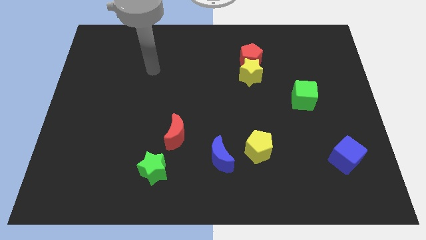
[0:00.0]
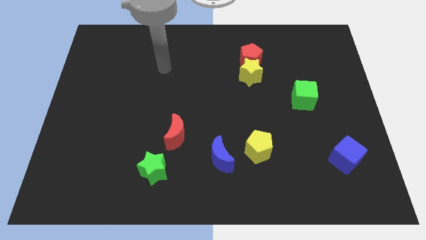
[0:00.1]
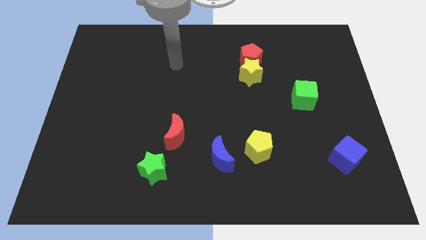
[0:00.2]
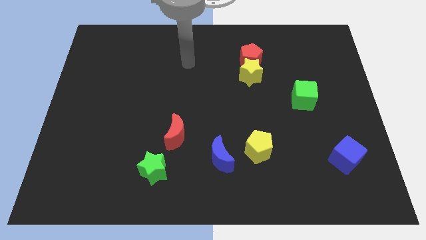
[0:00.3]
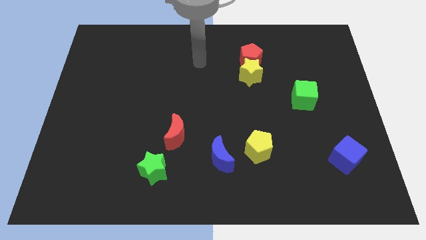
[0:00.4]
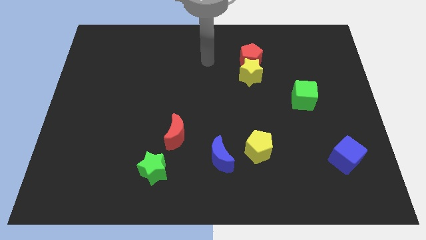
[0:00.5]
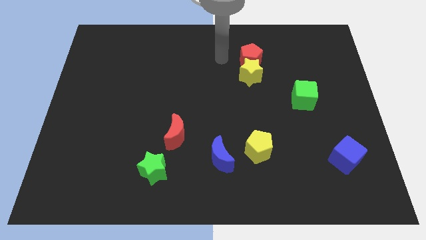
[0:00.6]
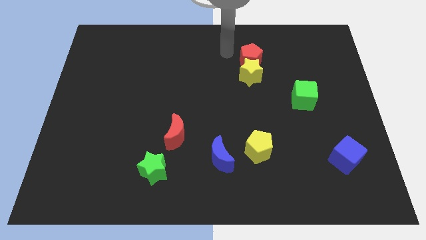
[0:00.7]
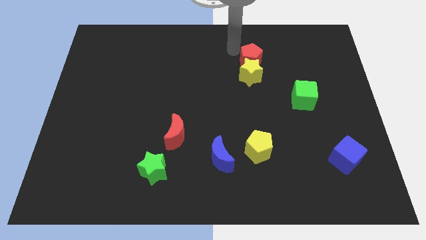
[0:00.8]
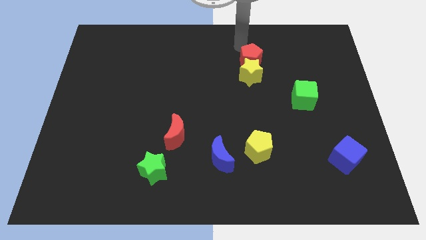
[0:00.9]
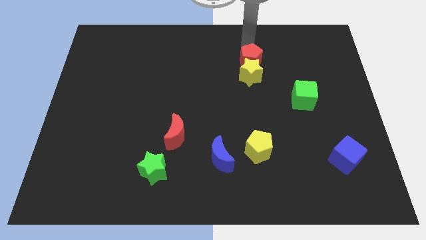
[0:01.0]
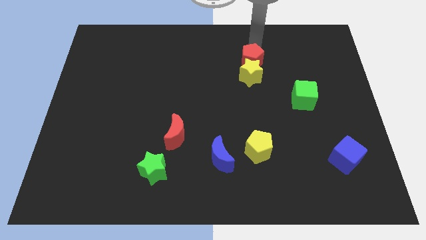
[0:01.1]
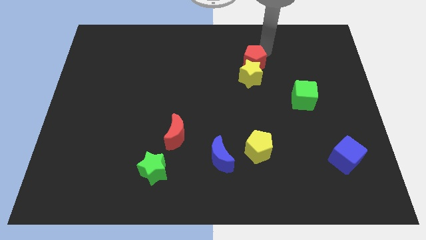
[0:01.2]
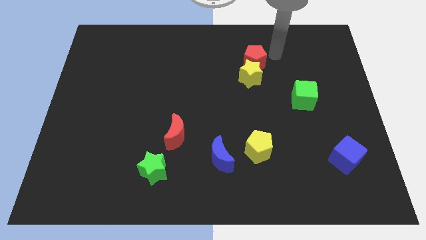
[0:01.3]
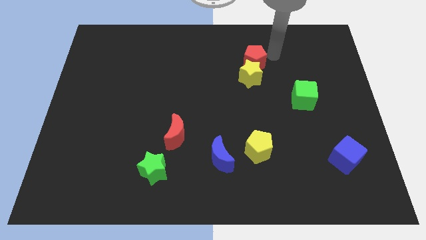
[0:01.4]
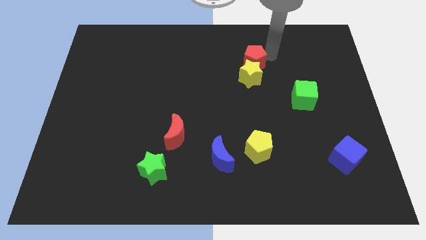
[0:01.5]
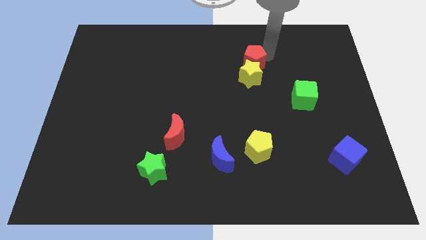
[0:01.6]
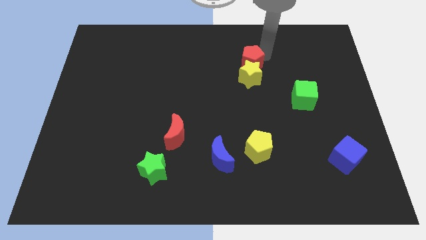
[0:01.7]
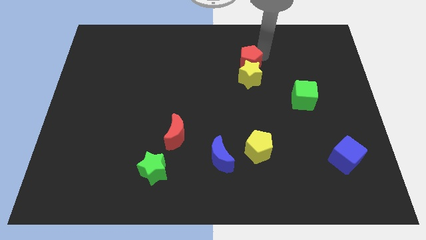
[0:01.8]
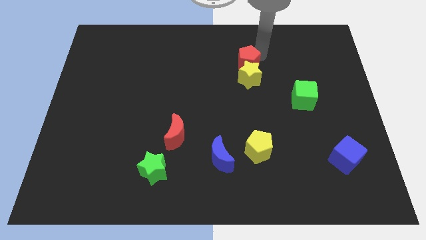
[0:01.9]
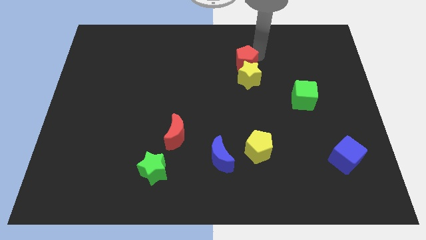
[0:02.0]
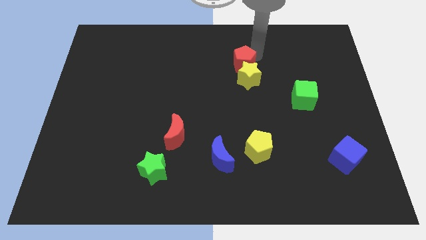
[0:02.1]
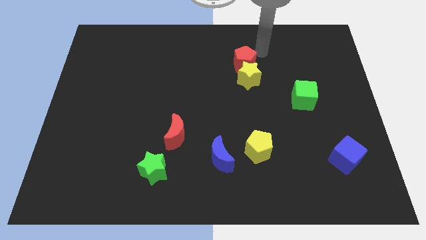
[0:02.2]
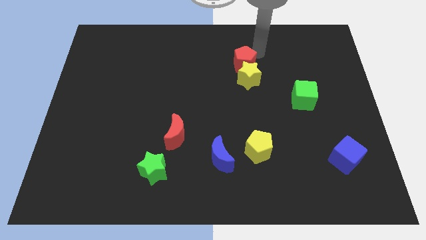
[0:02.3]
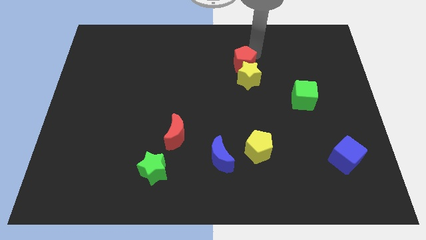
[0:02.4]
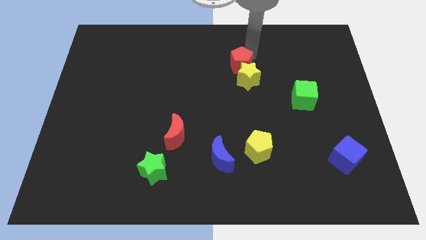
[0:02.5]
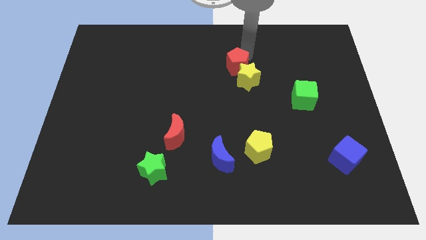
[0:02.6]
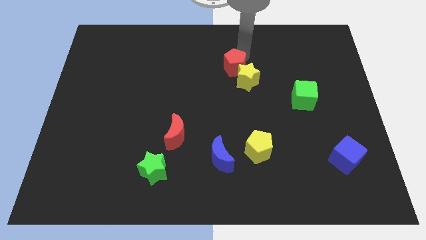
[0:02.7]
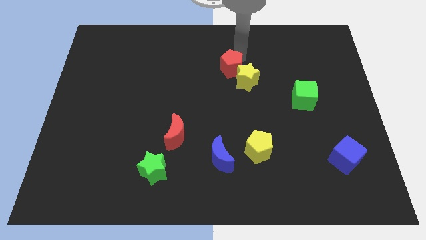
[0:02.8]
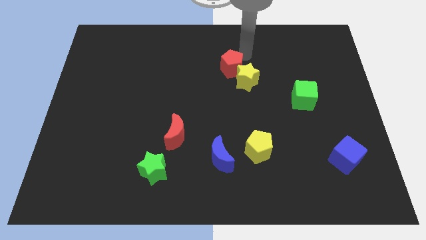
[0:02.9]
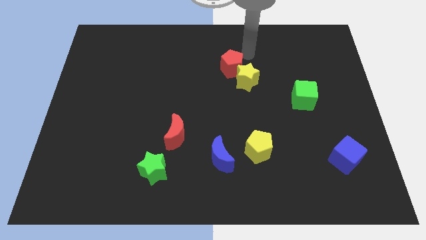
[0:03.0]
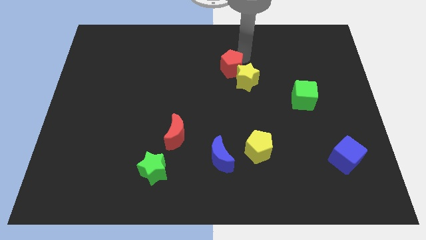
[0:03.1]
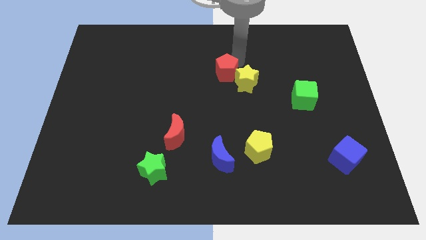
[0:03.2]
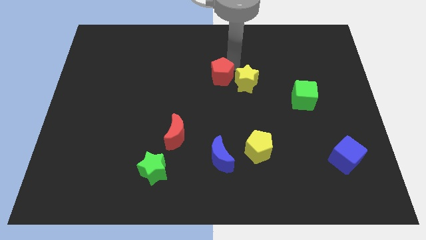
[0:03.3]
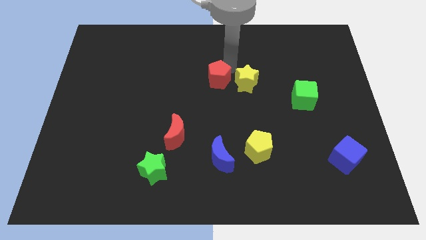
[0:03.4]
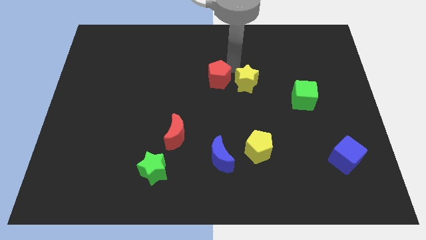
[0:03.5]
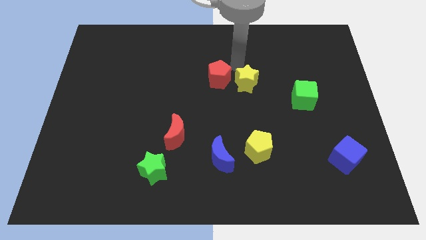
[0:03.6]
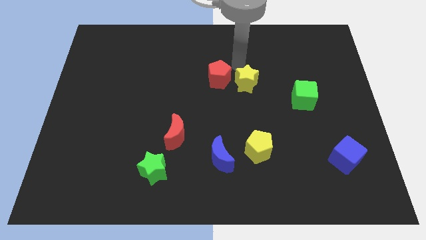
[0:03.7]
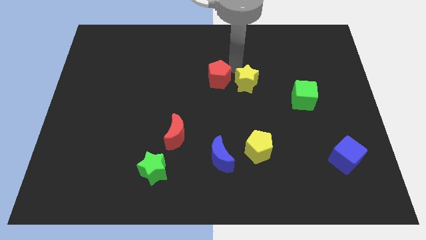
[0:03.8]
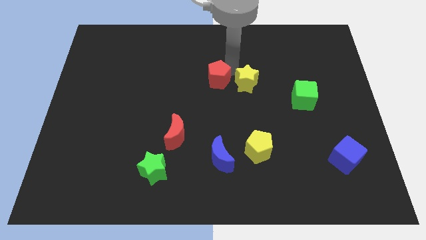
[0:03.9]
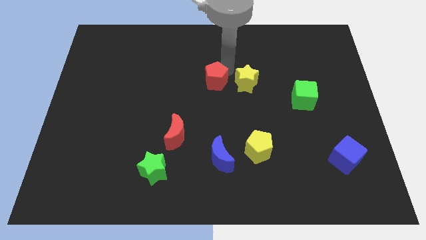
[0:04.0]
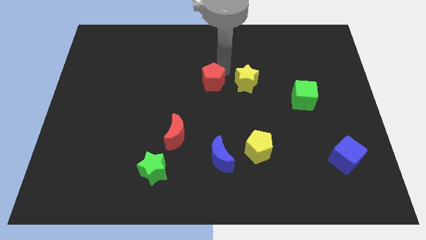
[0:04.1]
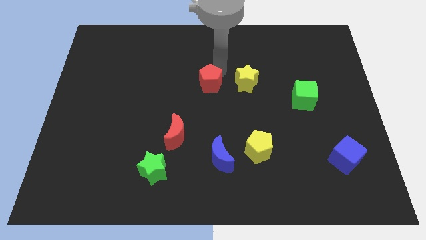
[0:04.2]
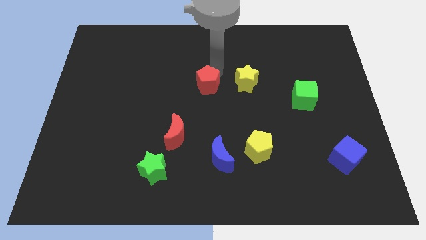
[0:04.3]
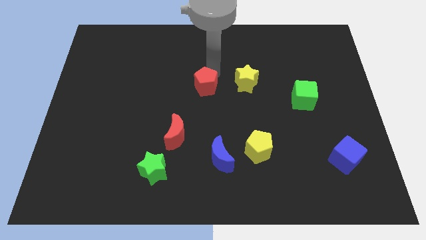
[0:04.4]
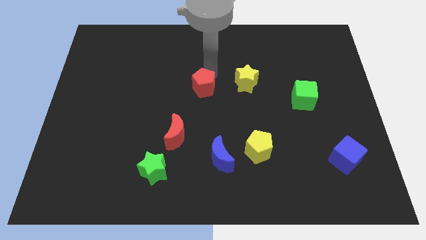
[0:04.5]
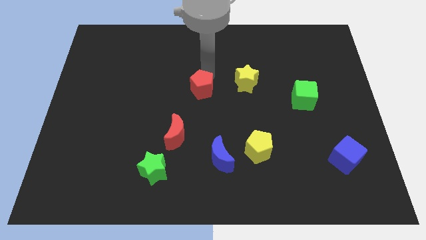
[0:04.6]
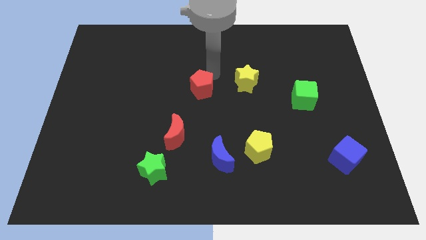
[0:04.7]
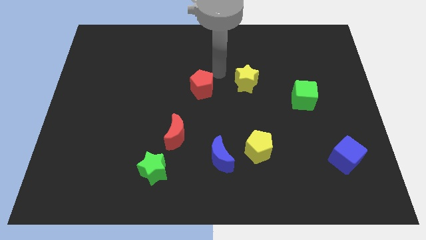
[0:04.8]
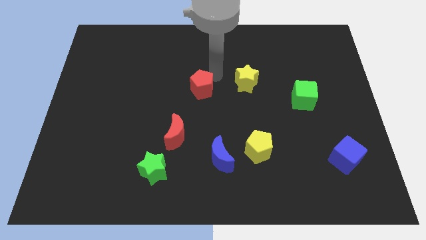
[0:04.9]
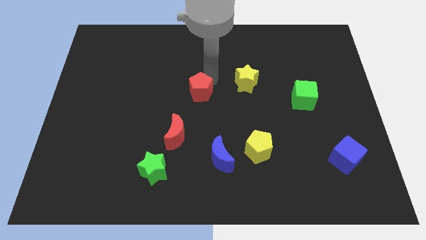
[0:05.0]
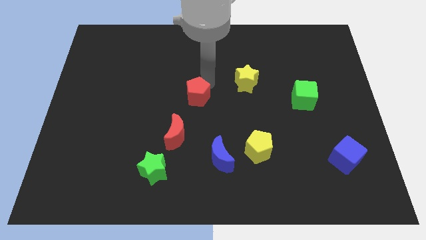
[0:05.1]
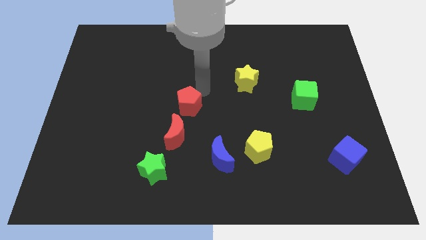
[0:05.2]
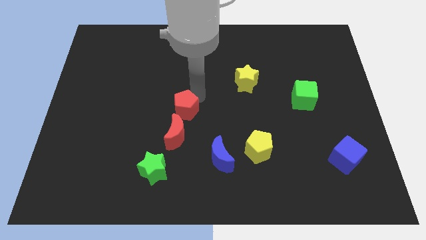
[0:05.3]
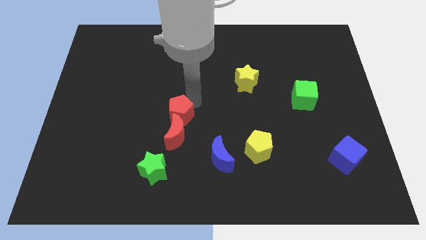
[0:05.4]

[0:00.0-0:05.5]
put the red pentagon to the top left side of the red moon

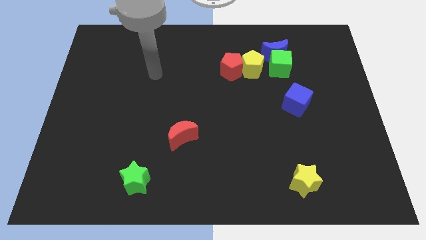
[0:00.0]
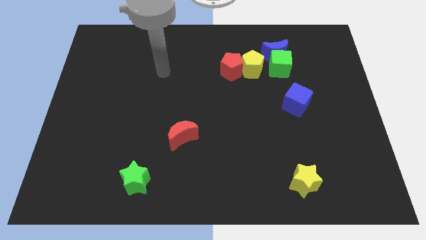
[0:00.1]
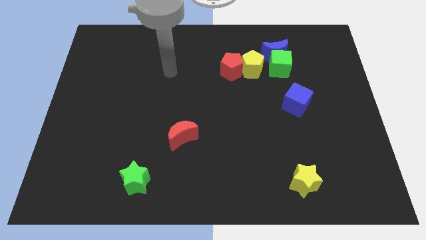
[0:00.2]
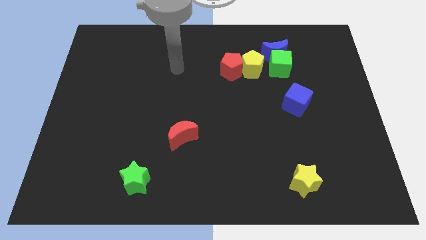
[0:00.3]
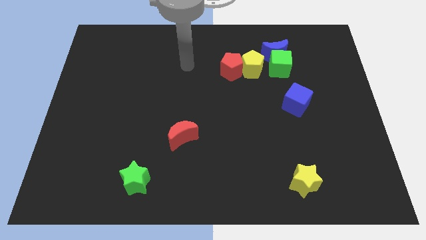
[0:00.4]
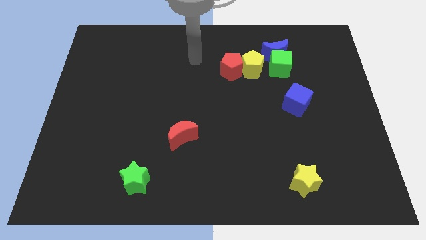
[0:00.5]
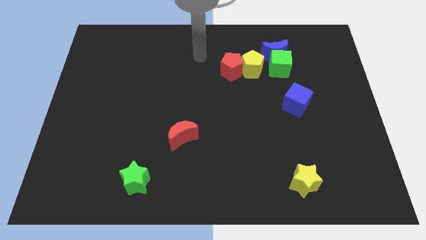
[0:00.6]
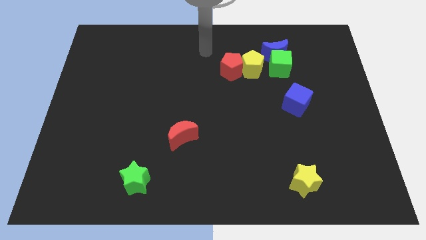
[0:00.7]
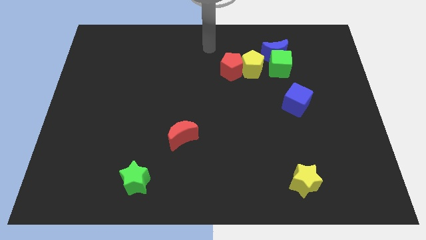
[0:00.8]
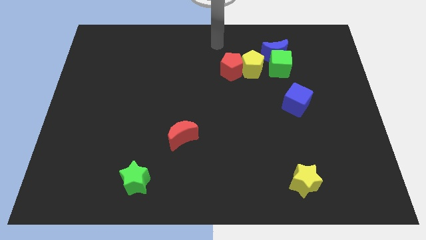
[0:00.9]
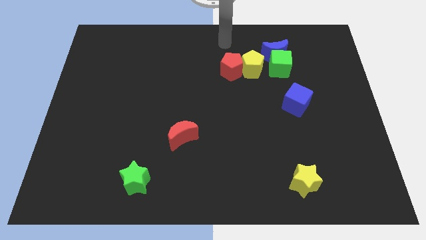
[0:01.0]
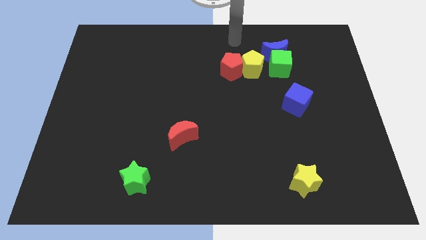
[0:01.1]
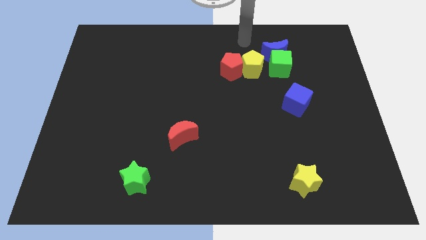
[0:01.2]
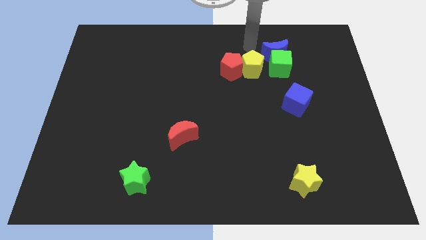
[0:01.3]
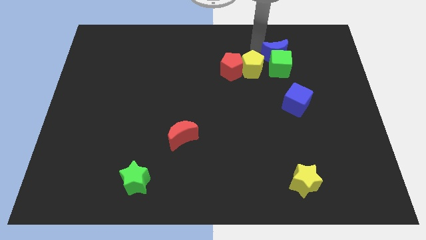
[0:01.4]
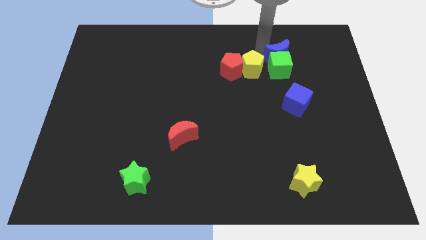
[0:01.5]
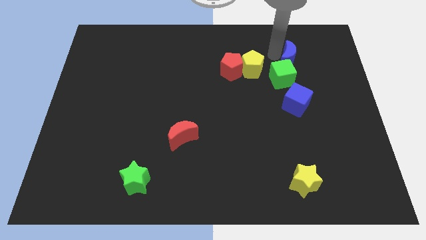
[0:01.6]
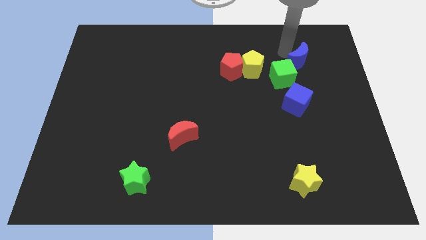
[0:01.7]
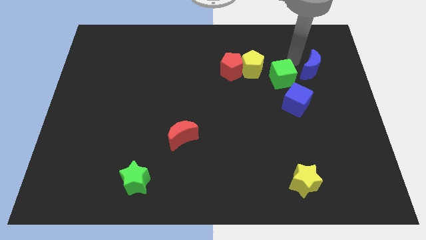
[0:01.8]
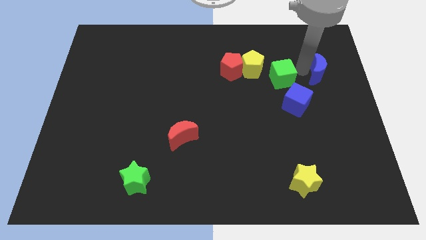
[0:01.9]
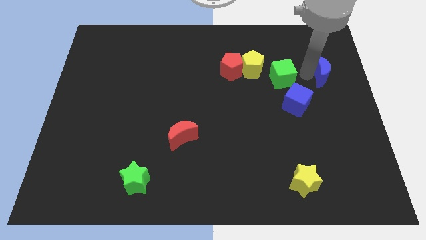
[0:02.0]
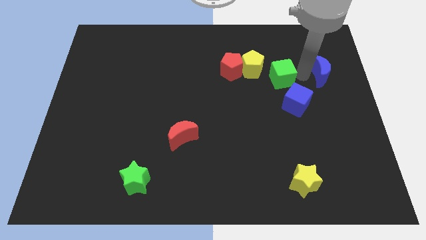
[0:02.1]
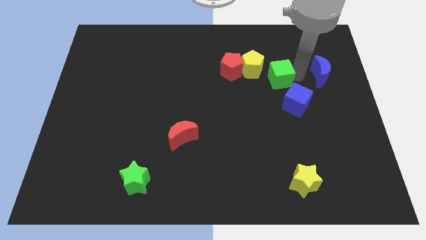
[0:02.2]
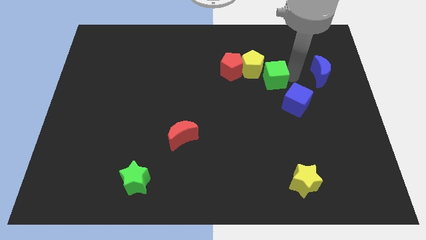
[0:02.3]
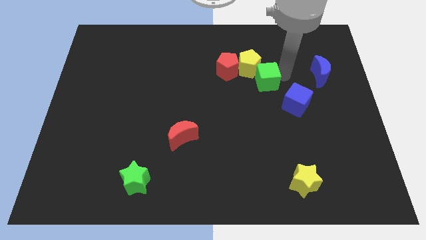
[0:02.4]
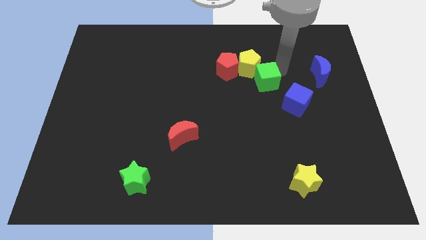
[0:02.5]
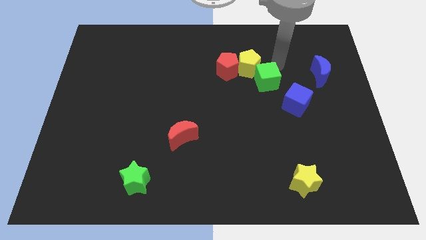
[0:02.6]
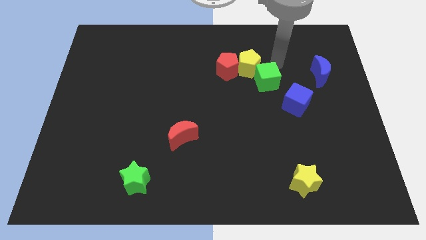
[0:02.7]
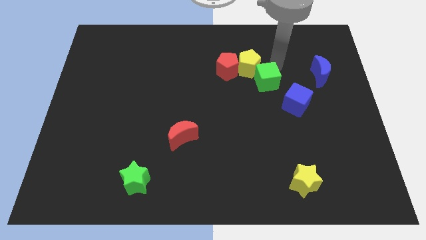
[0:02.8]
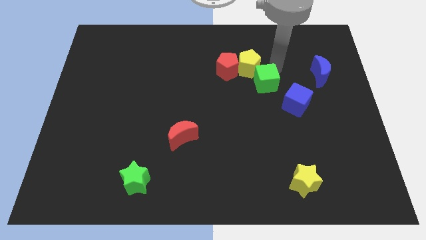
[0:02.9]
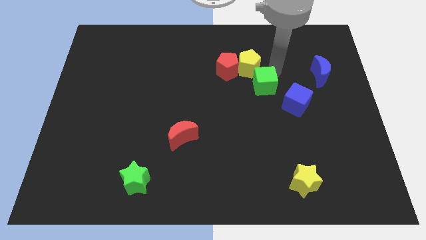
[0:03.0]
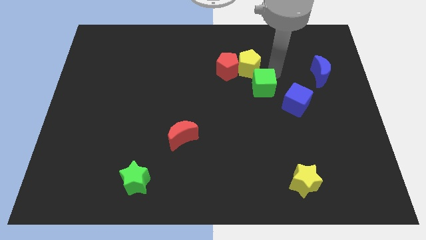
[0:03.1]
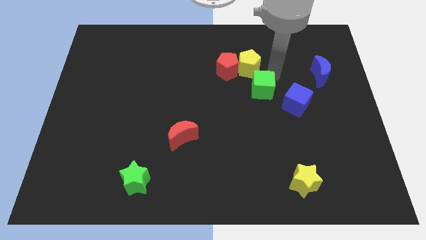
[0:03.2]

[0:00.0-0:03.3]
move the green cube to the left side of the blue cube
